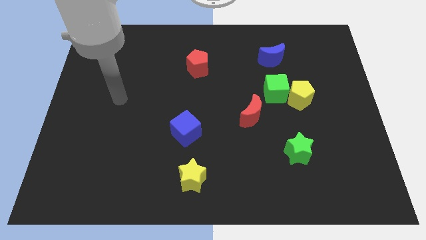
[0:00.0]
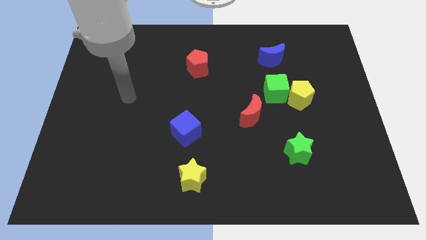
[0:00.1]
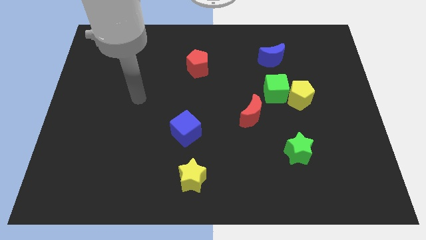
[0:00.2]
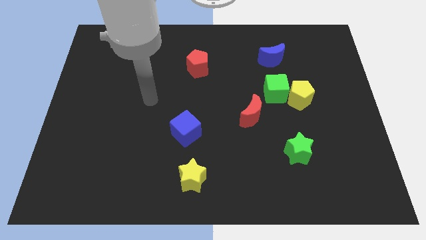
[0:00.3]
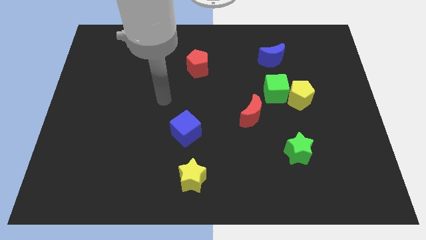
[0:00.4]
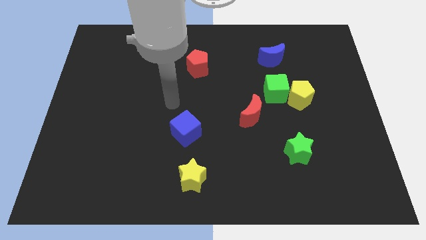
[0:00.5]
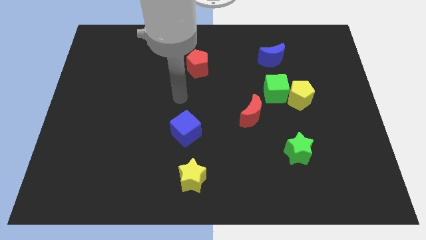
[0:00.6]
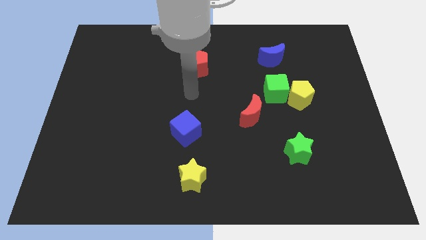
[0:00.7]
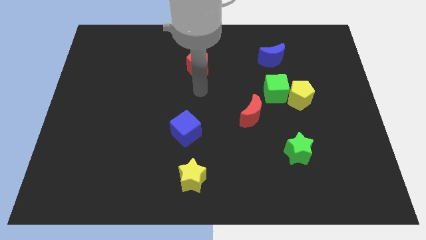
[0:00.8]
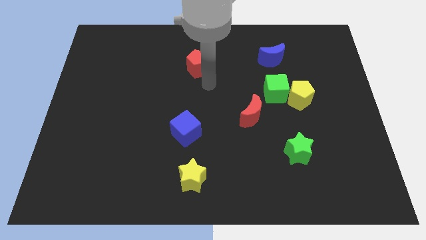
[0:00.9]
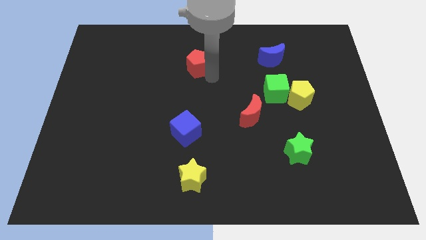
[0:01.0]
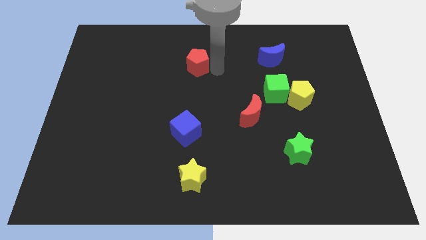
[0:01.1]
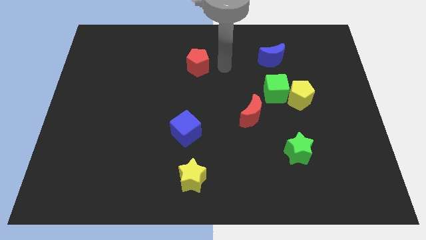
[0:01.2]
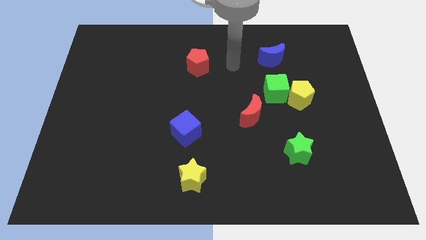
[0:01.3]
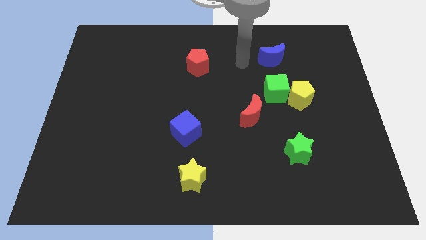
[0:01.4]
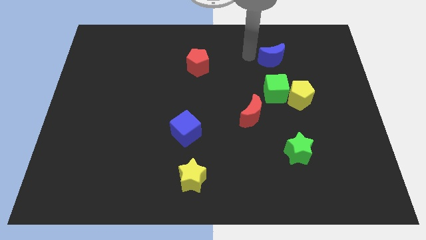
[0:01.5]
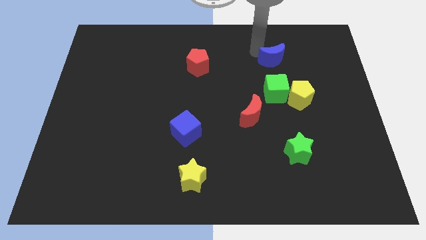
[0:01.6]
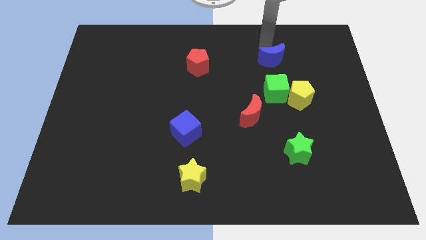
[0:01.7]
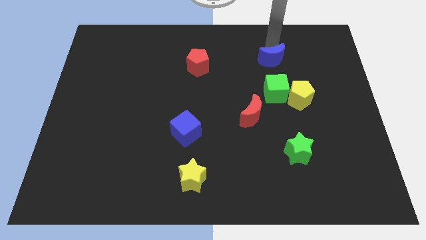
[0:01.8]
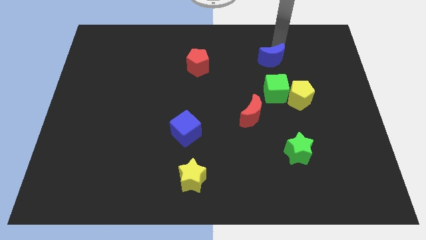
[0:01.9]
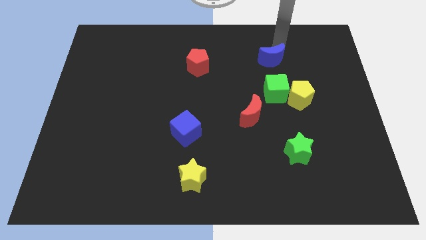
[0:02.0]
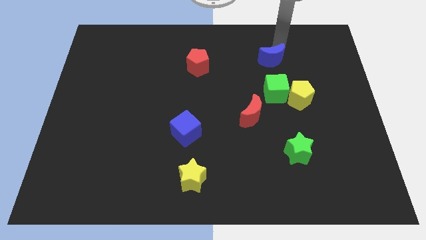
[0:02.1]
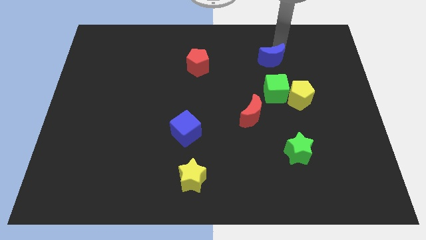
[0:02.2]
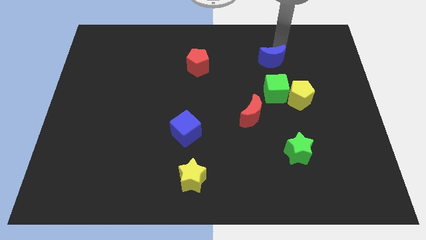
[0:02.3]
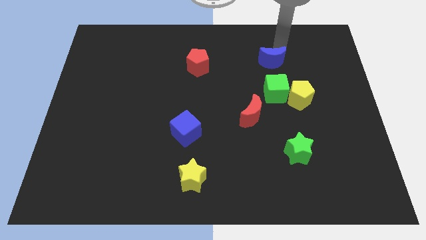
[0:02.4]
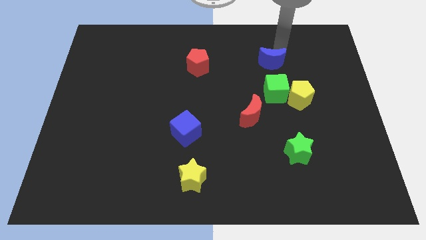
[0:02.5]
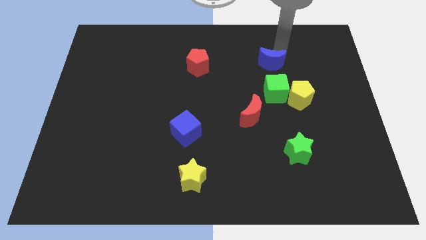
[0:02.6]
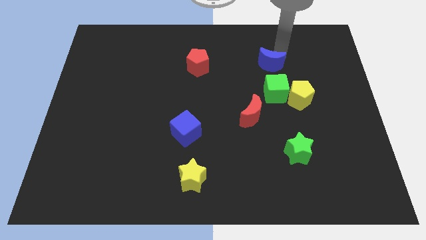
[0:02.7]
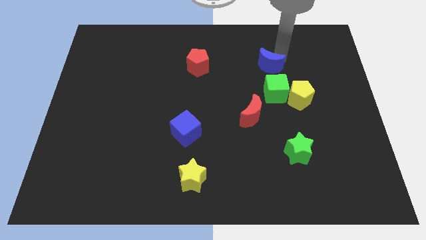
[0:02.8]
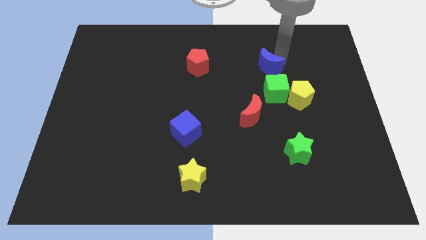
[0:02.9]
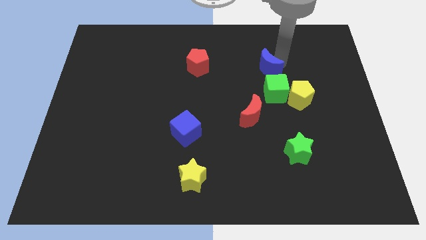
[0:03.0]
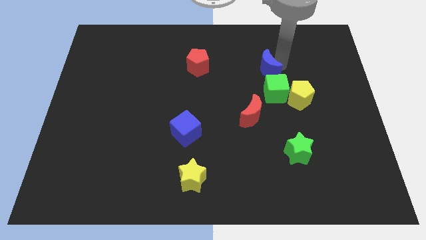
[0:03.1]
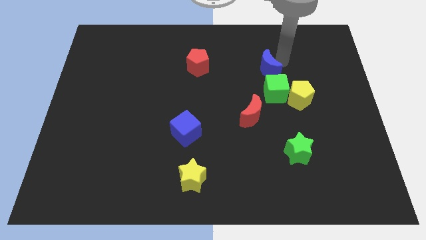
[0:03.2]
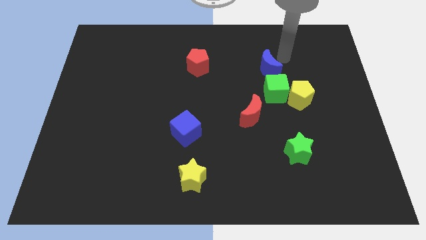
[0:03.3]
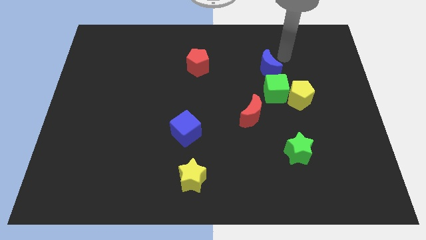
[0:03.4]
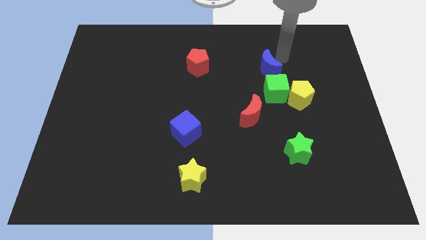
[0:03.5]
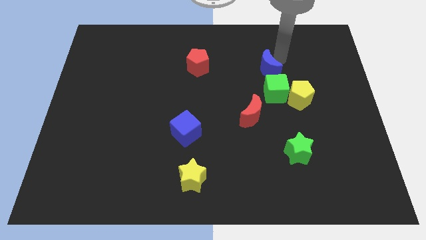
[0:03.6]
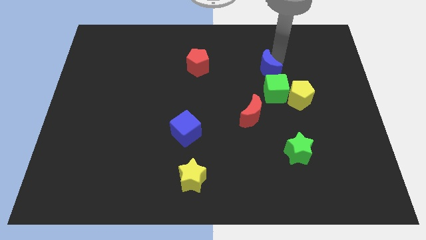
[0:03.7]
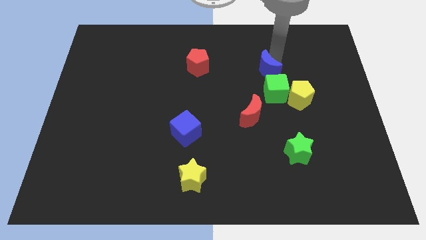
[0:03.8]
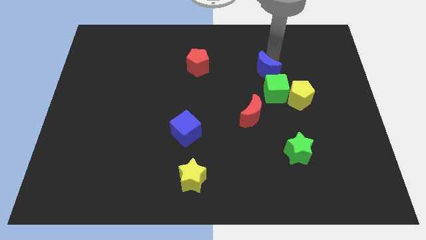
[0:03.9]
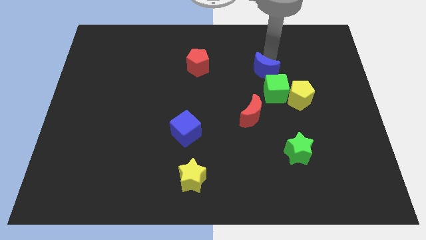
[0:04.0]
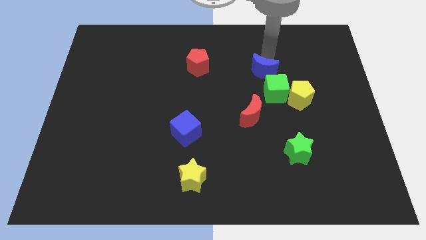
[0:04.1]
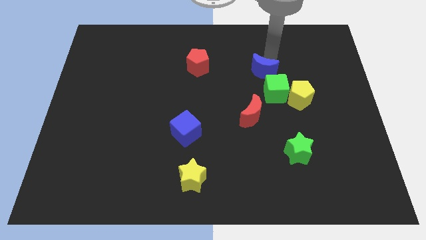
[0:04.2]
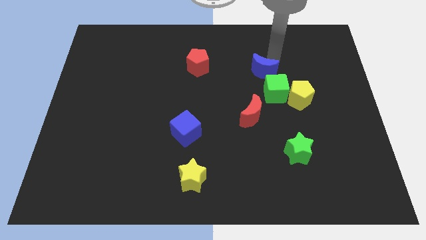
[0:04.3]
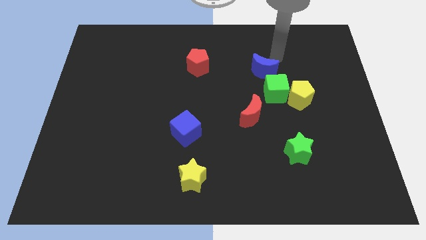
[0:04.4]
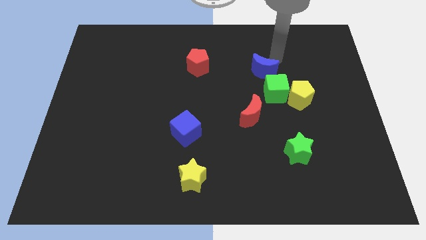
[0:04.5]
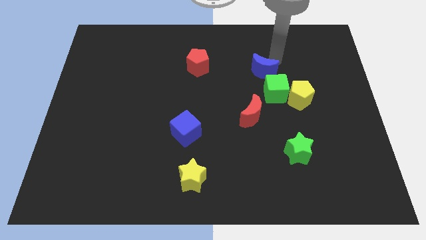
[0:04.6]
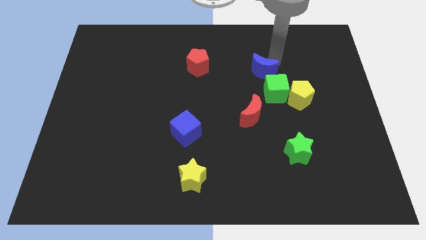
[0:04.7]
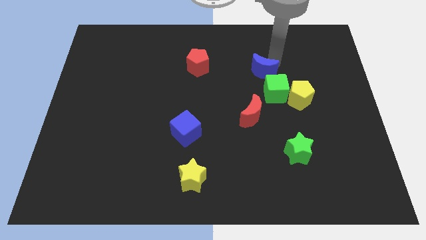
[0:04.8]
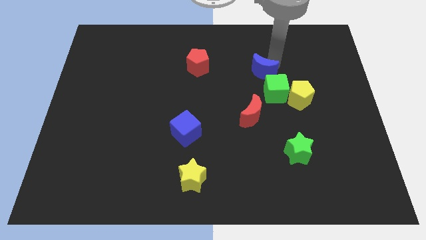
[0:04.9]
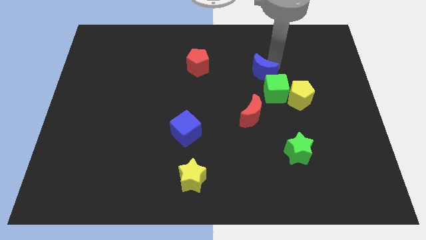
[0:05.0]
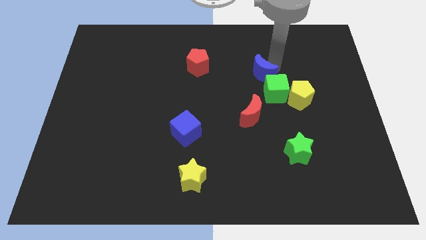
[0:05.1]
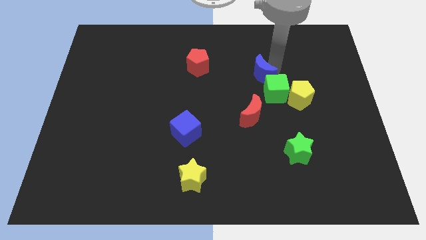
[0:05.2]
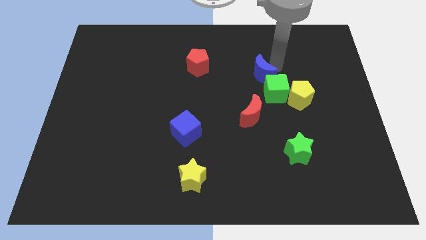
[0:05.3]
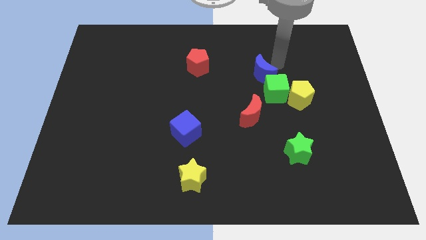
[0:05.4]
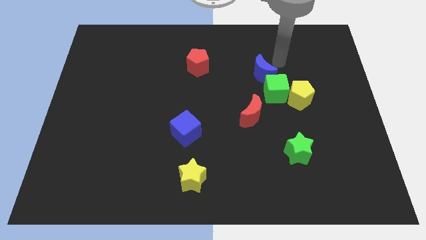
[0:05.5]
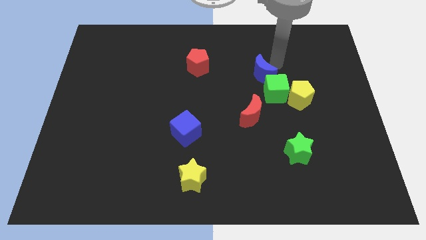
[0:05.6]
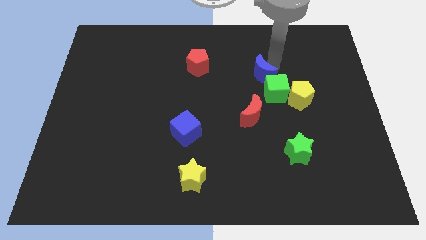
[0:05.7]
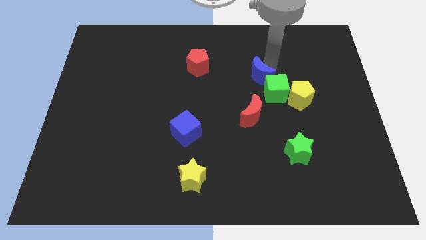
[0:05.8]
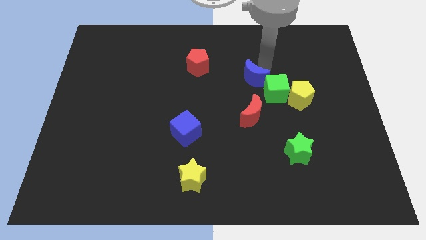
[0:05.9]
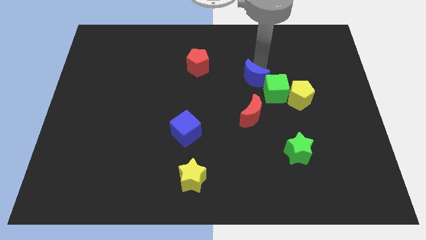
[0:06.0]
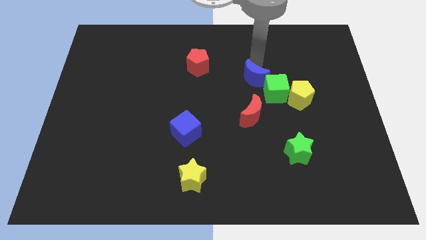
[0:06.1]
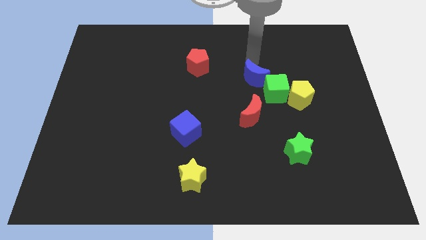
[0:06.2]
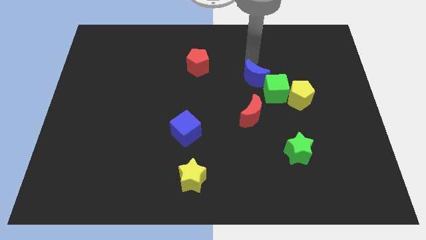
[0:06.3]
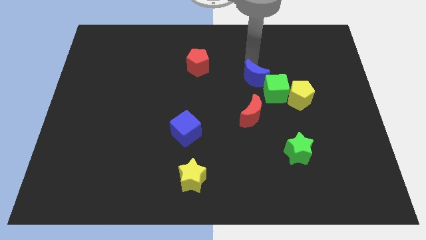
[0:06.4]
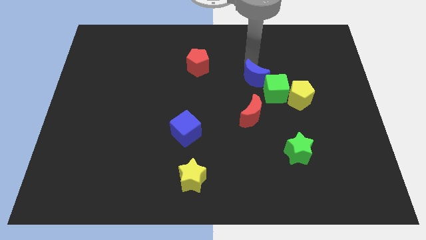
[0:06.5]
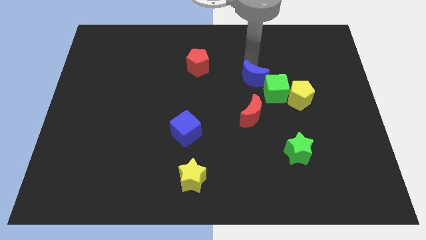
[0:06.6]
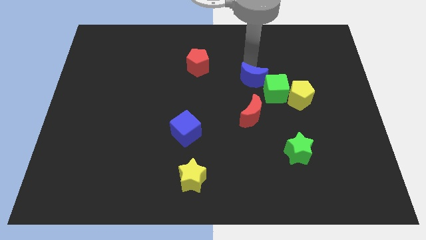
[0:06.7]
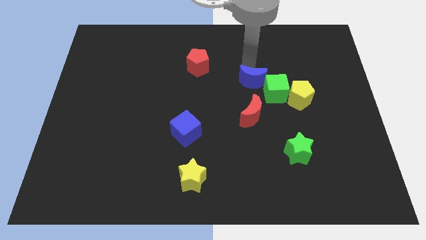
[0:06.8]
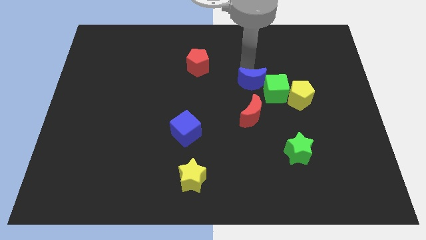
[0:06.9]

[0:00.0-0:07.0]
put the blue moon to the left of the yellow pentagon

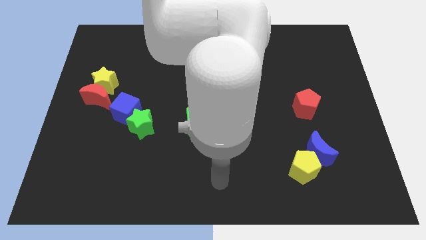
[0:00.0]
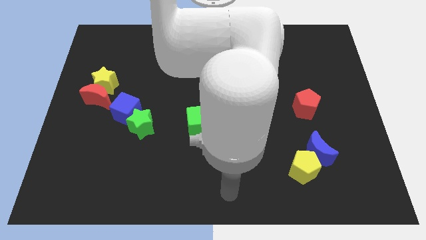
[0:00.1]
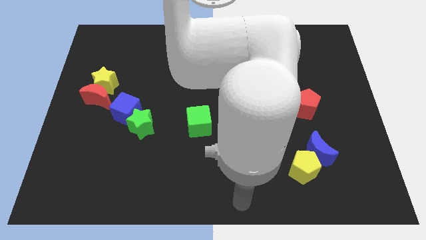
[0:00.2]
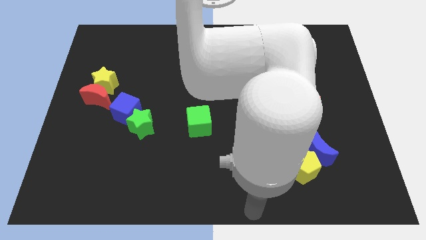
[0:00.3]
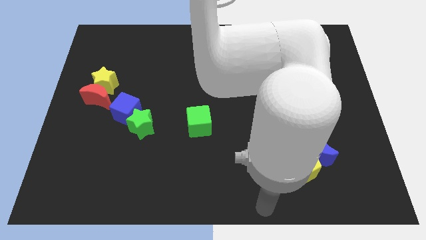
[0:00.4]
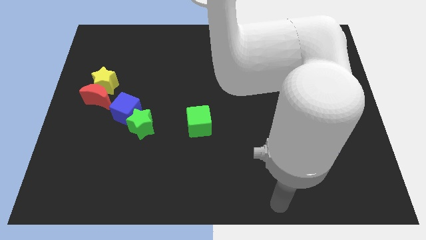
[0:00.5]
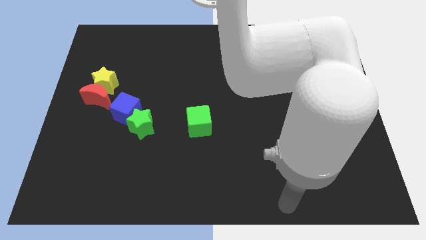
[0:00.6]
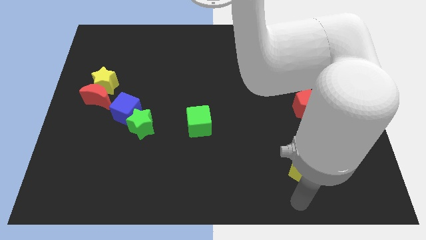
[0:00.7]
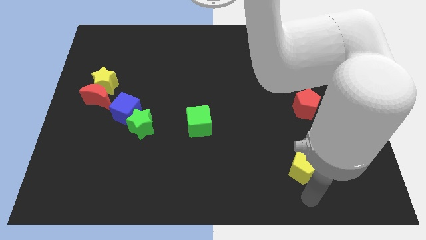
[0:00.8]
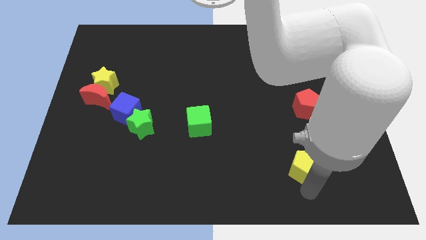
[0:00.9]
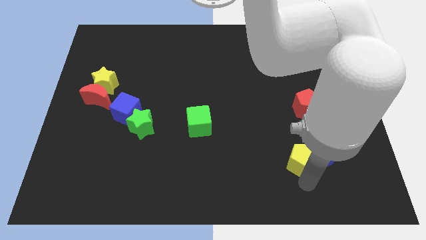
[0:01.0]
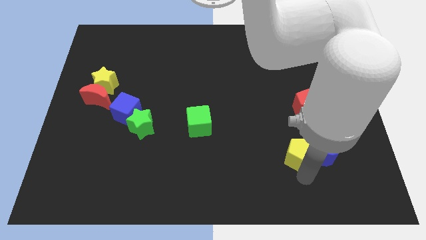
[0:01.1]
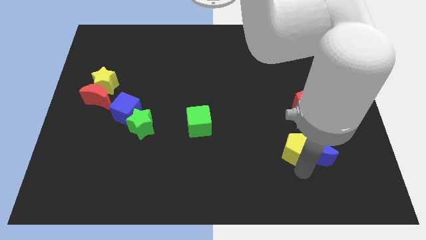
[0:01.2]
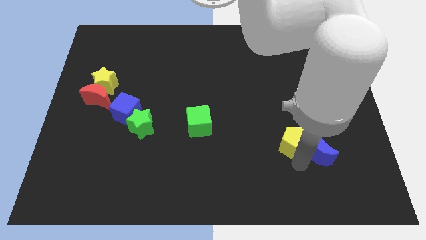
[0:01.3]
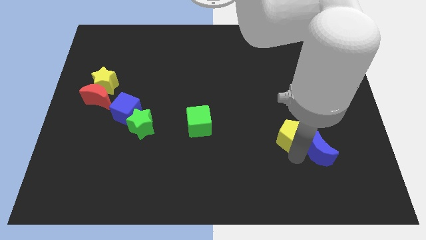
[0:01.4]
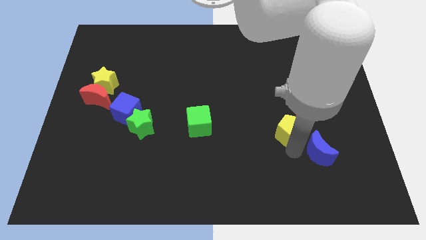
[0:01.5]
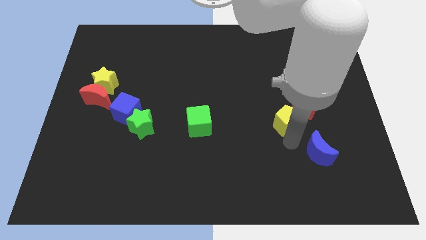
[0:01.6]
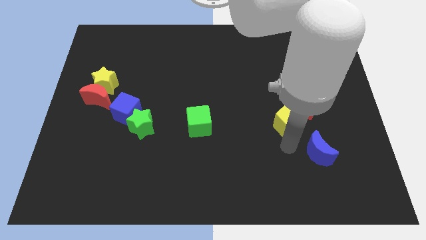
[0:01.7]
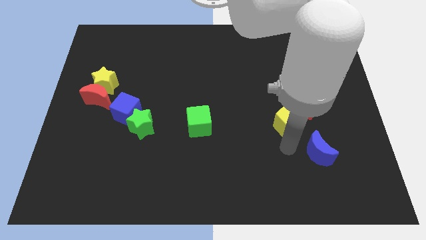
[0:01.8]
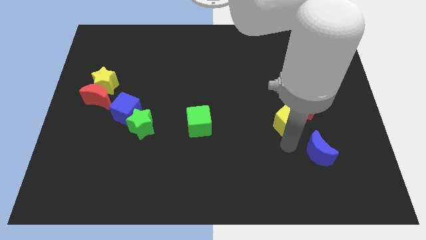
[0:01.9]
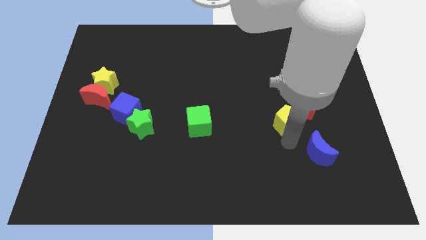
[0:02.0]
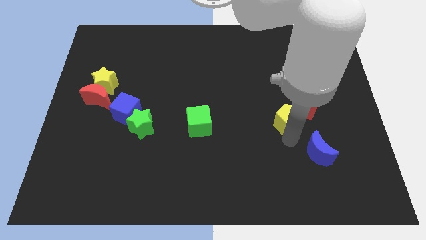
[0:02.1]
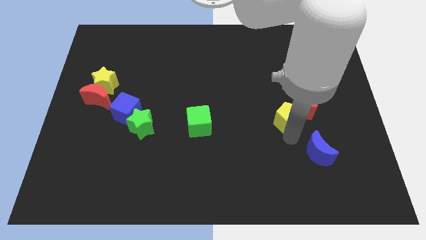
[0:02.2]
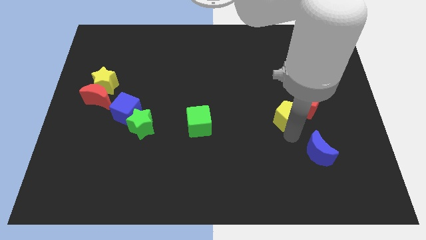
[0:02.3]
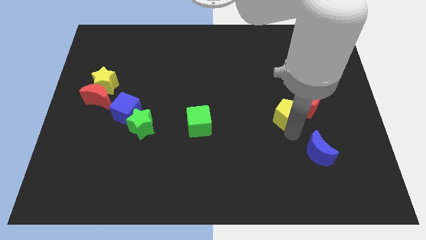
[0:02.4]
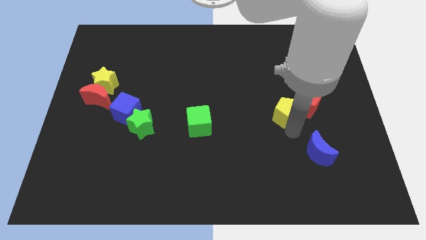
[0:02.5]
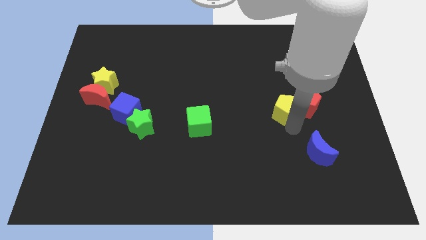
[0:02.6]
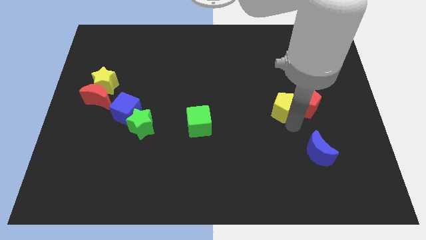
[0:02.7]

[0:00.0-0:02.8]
push the yellow pentagon to the top left of the red pentagon
